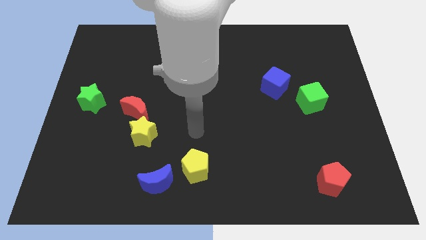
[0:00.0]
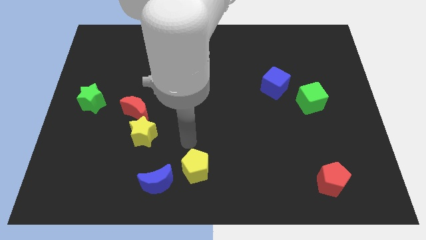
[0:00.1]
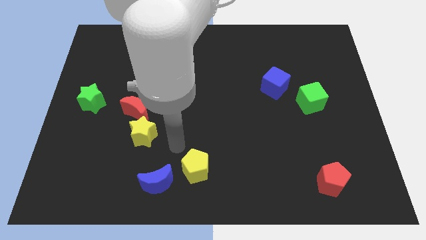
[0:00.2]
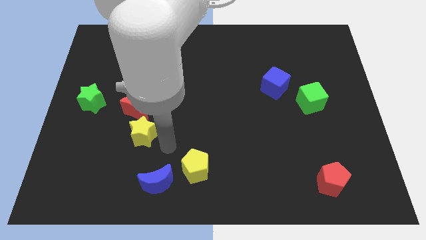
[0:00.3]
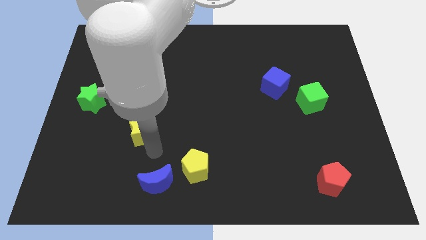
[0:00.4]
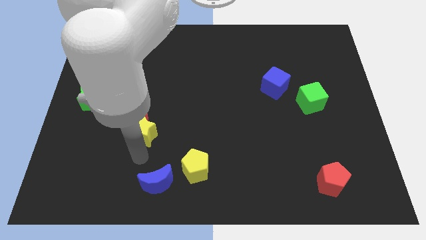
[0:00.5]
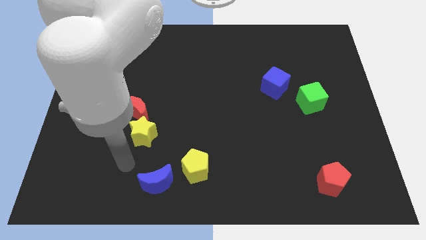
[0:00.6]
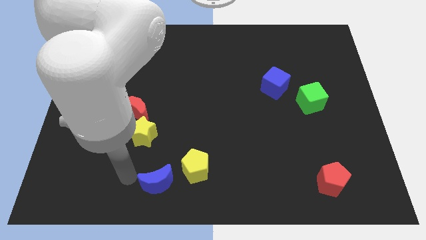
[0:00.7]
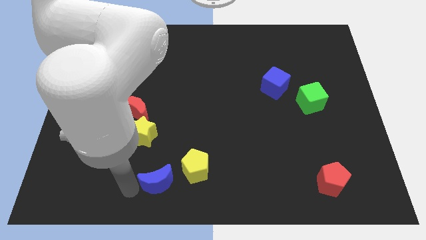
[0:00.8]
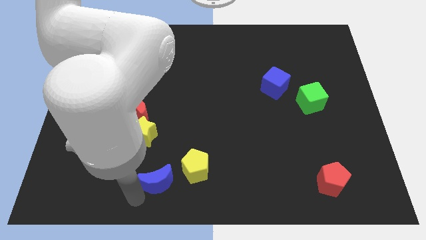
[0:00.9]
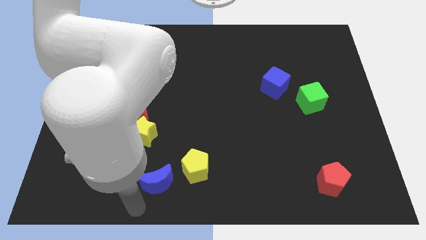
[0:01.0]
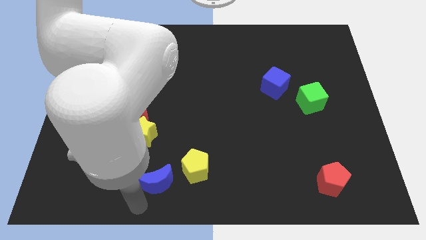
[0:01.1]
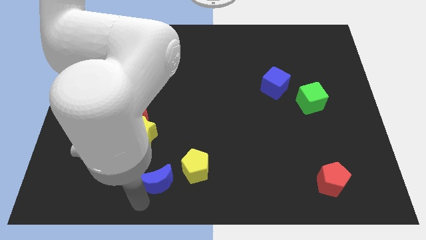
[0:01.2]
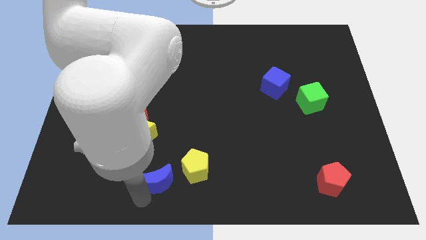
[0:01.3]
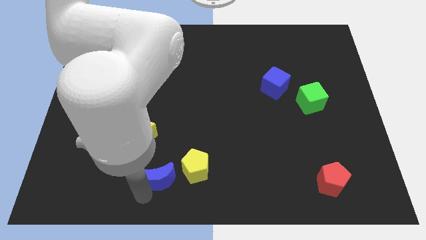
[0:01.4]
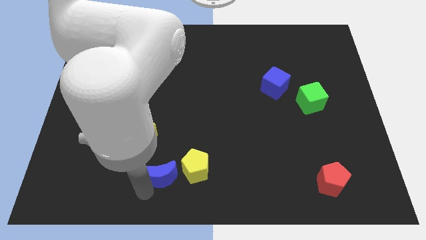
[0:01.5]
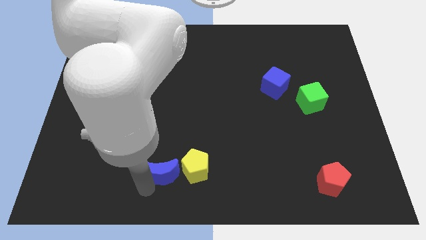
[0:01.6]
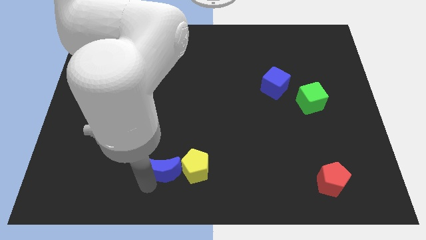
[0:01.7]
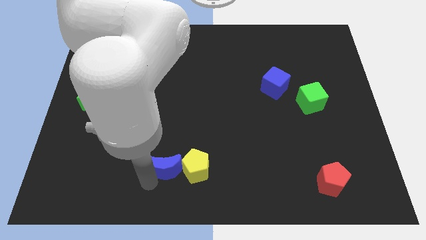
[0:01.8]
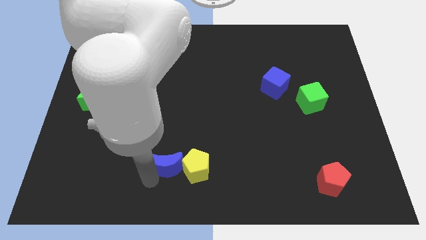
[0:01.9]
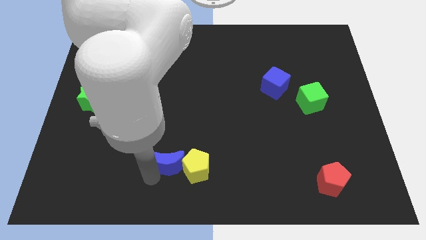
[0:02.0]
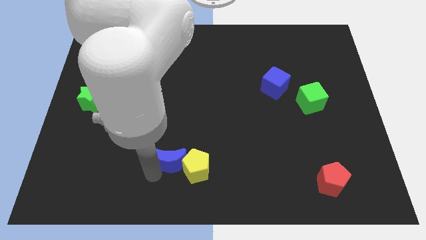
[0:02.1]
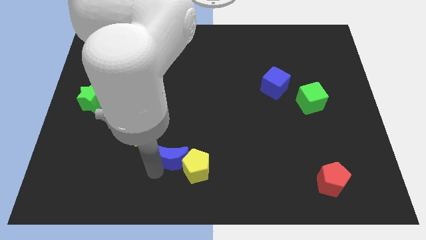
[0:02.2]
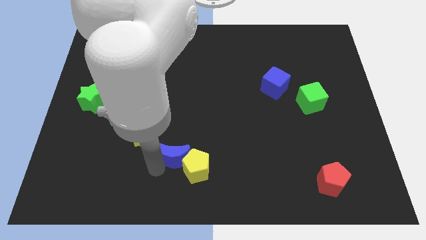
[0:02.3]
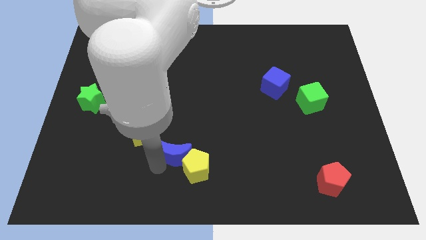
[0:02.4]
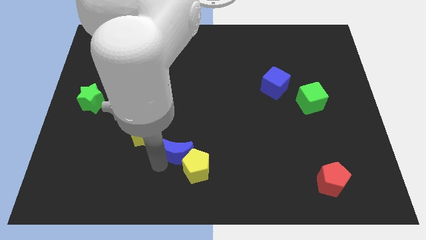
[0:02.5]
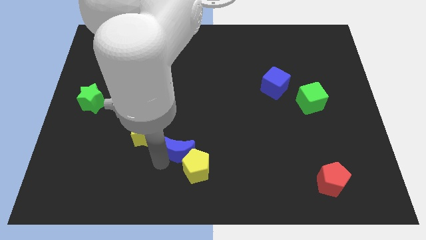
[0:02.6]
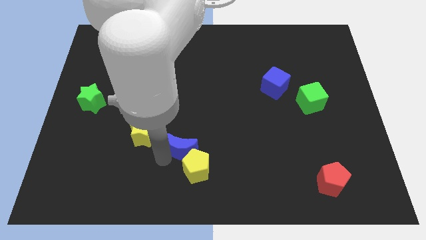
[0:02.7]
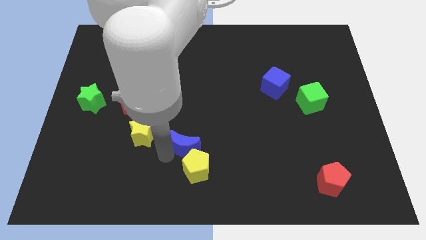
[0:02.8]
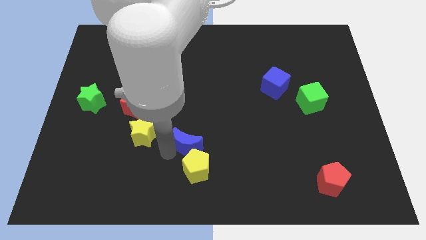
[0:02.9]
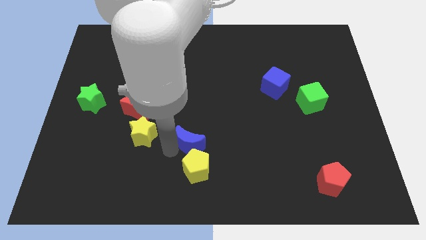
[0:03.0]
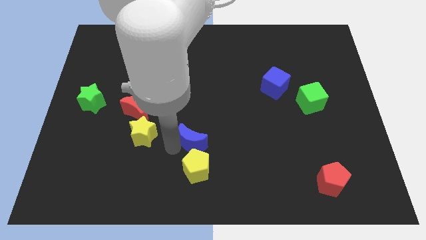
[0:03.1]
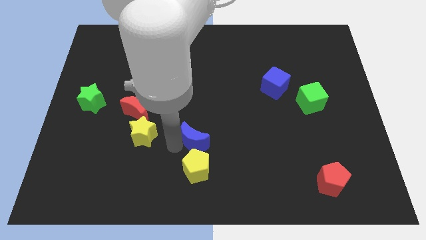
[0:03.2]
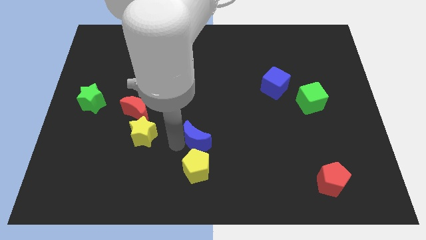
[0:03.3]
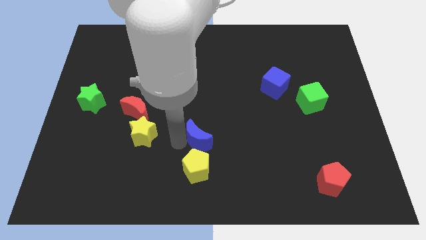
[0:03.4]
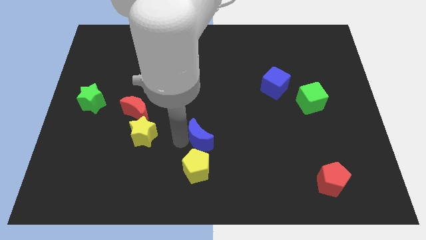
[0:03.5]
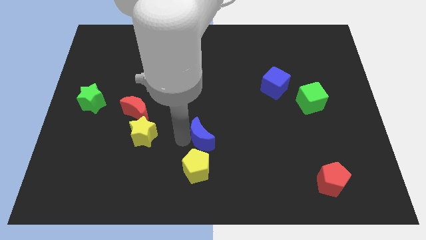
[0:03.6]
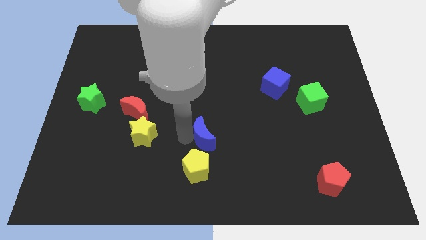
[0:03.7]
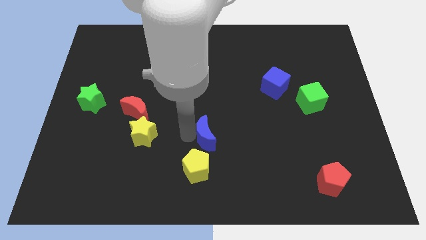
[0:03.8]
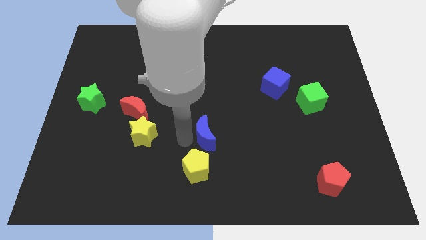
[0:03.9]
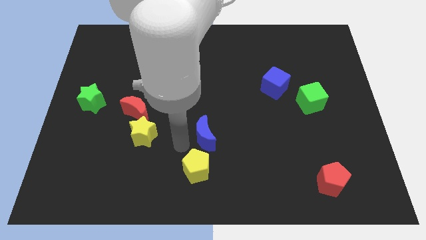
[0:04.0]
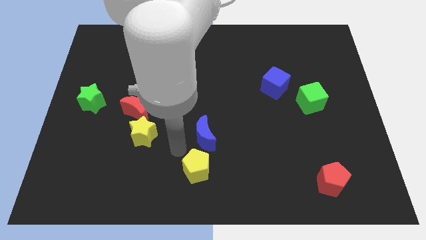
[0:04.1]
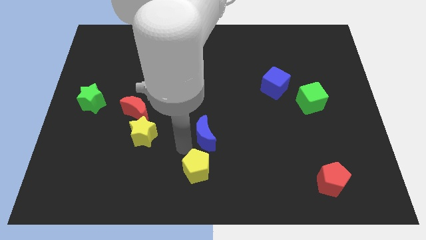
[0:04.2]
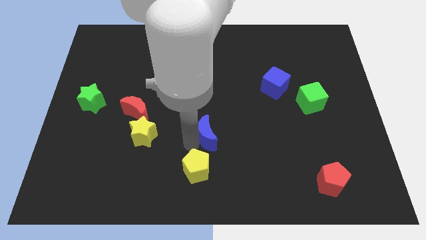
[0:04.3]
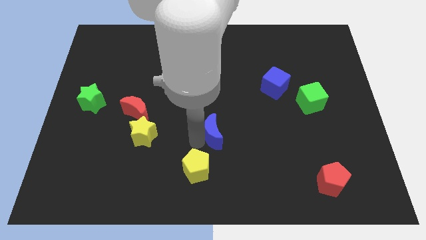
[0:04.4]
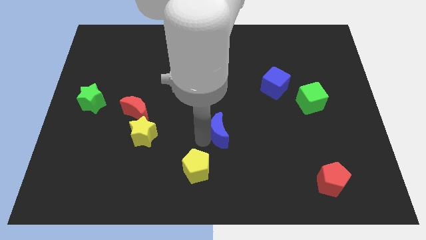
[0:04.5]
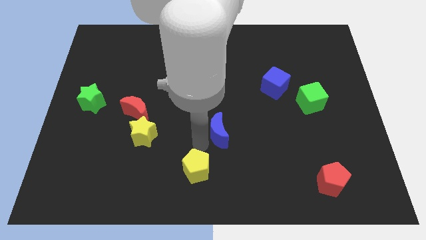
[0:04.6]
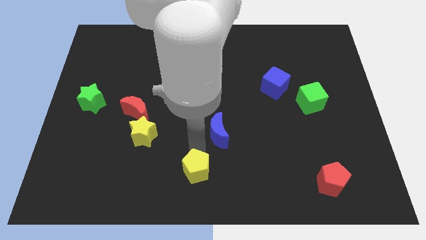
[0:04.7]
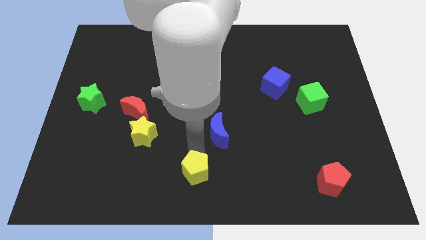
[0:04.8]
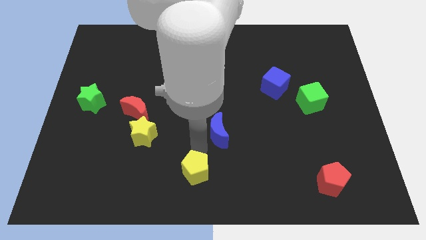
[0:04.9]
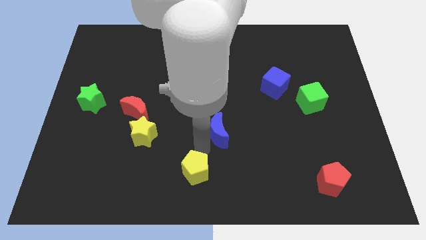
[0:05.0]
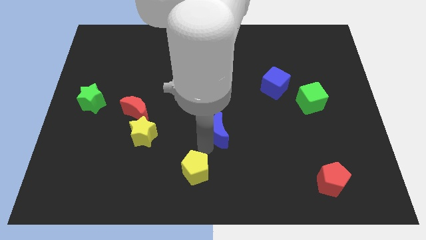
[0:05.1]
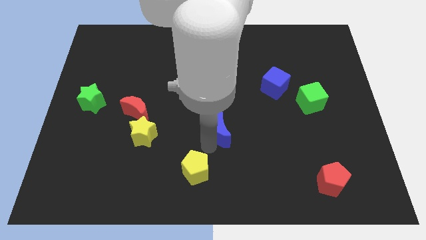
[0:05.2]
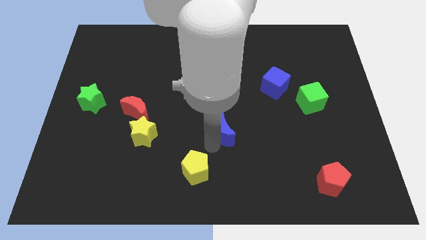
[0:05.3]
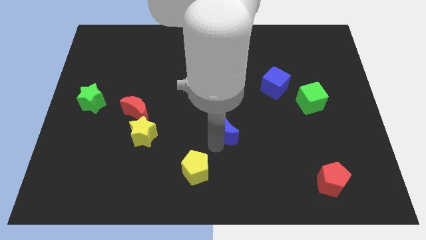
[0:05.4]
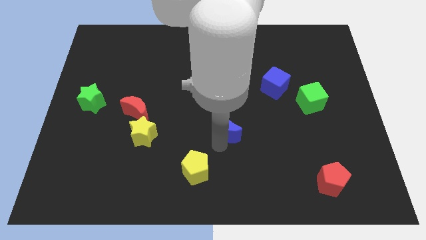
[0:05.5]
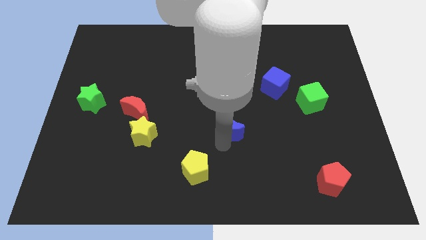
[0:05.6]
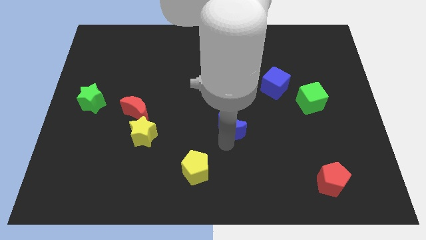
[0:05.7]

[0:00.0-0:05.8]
push the blue moon upwards and then to the right

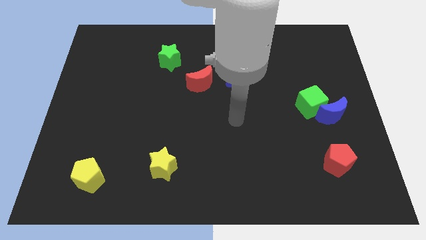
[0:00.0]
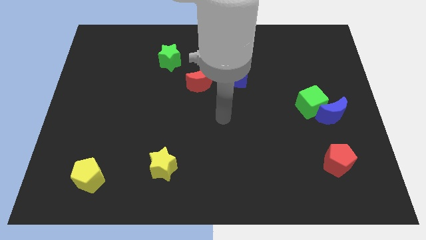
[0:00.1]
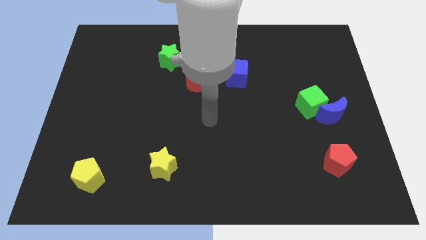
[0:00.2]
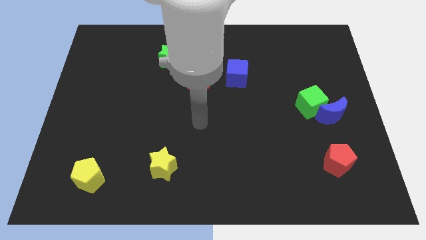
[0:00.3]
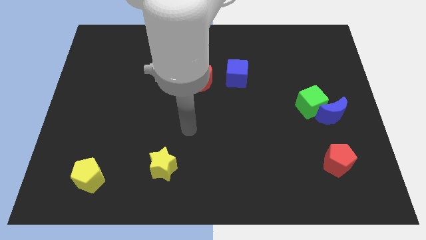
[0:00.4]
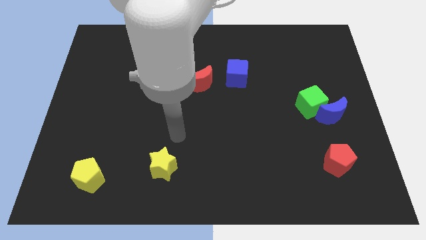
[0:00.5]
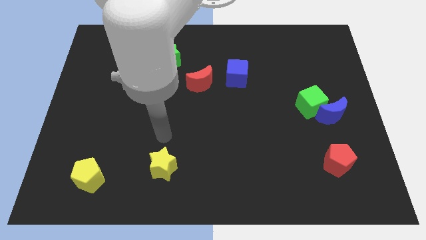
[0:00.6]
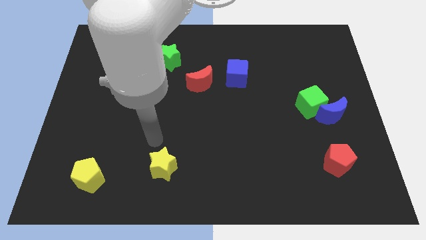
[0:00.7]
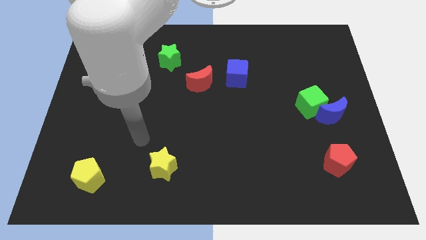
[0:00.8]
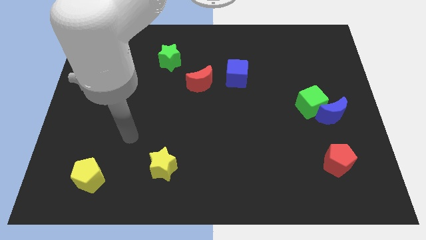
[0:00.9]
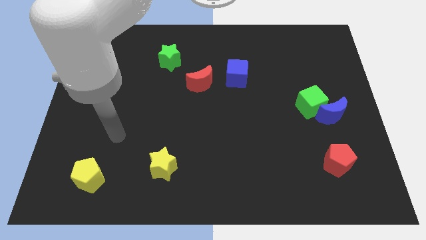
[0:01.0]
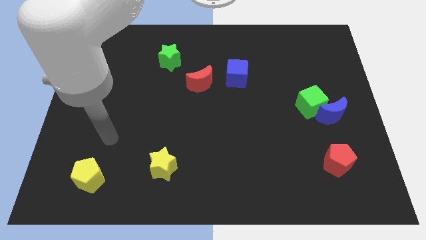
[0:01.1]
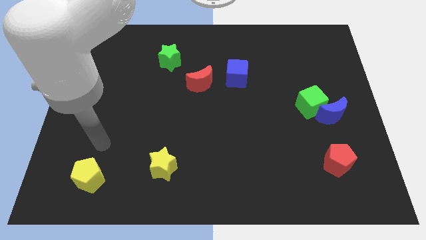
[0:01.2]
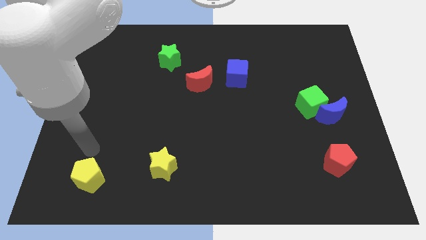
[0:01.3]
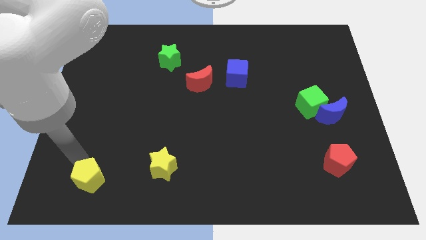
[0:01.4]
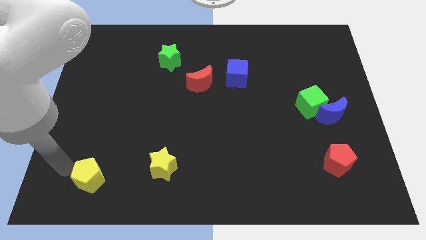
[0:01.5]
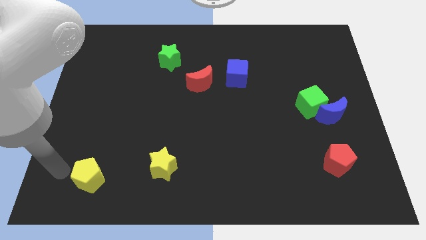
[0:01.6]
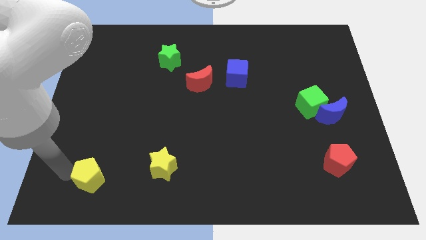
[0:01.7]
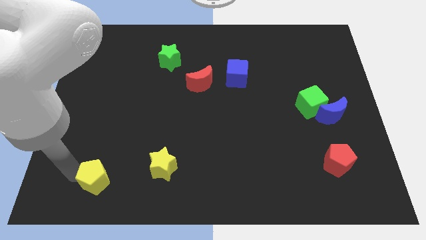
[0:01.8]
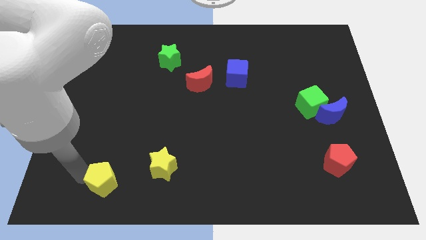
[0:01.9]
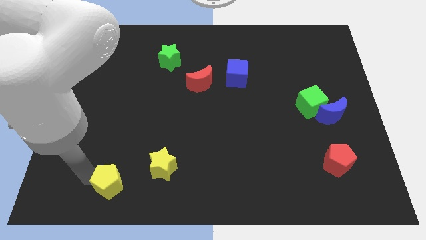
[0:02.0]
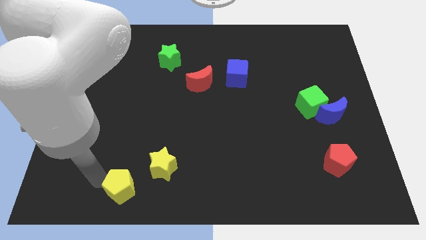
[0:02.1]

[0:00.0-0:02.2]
slide the yellow pentagon somewhat right
